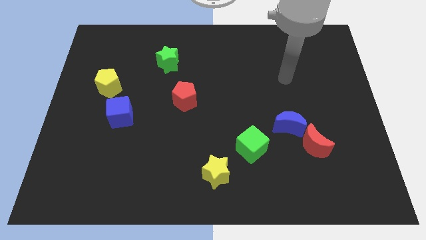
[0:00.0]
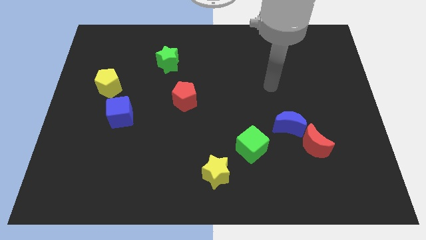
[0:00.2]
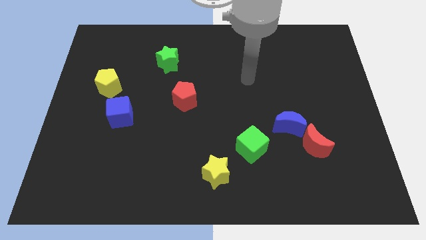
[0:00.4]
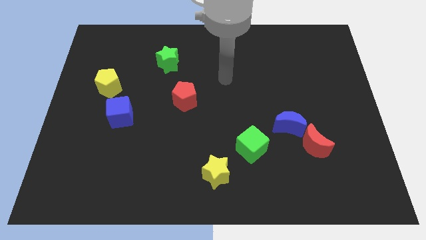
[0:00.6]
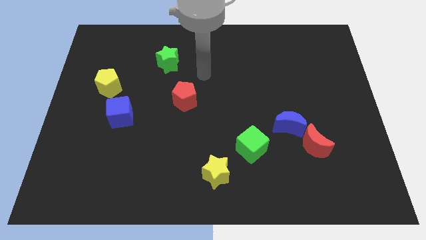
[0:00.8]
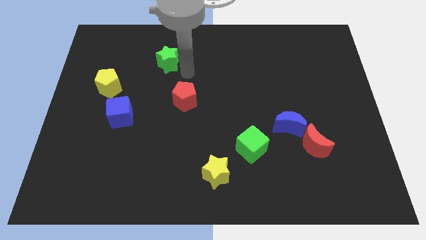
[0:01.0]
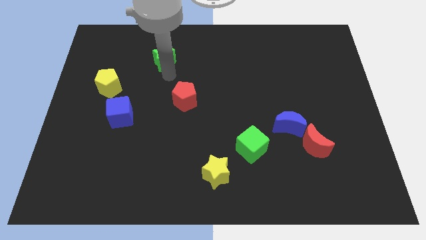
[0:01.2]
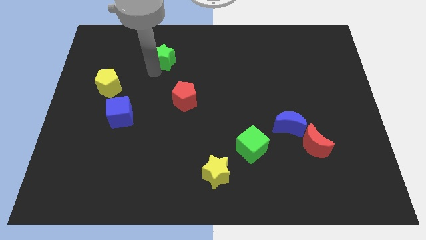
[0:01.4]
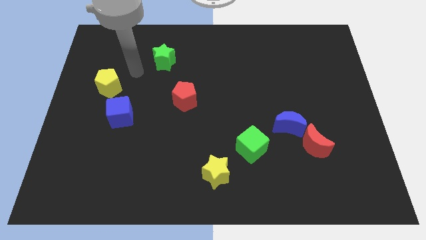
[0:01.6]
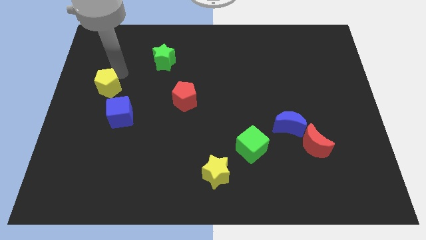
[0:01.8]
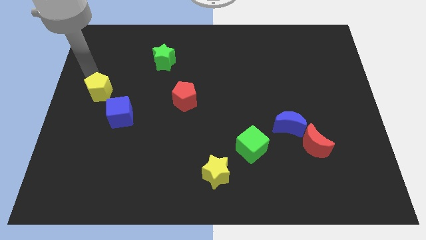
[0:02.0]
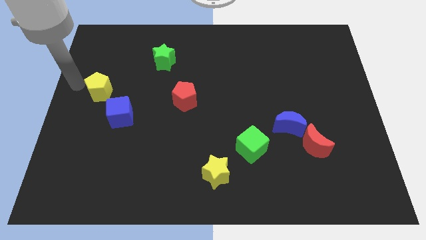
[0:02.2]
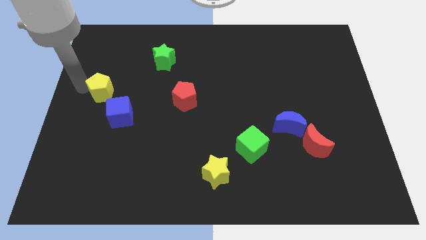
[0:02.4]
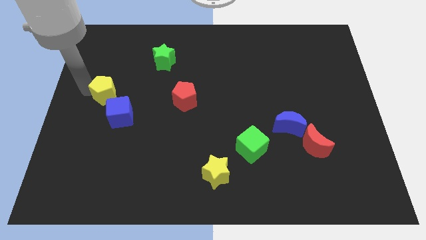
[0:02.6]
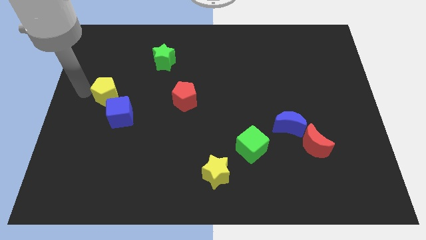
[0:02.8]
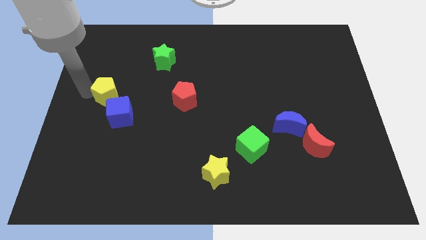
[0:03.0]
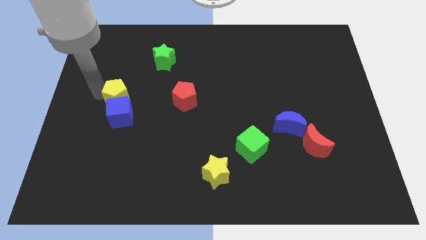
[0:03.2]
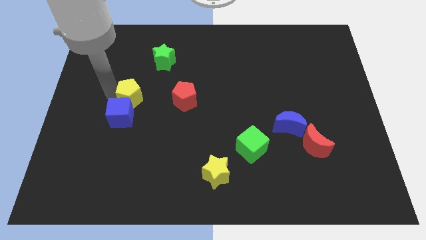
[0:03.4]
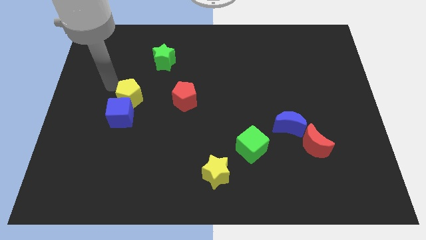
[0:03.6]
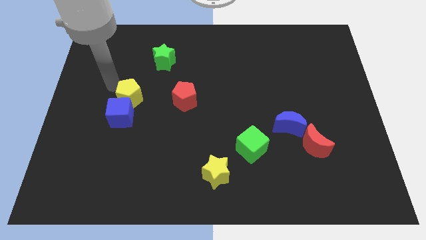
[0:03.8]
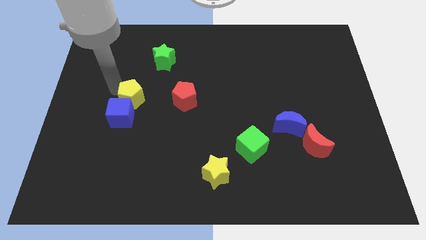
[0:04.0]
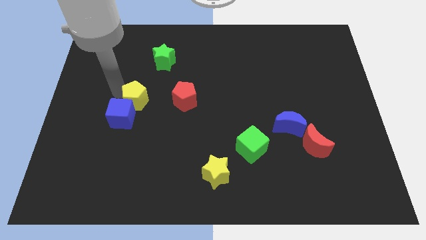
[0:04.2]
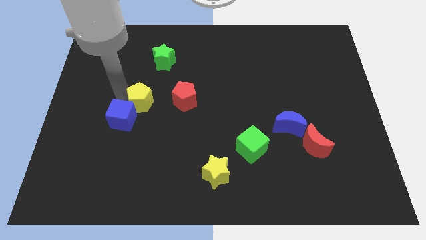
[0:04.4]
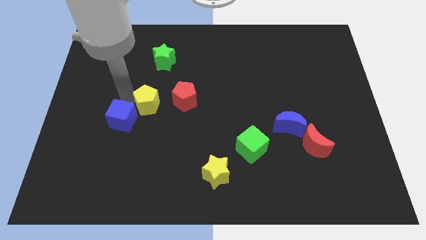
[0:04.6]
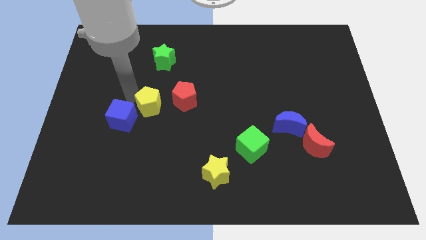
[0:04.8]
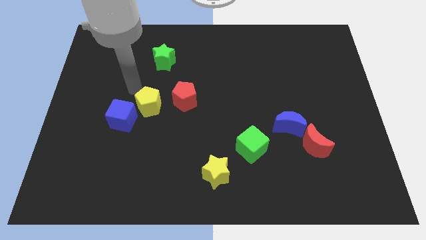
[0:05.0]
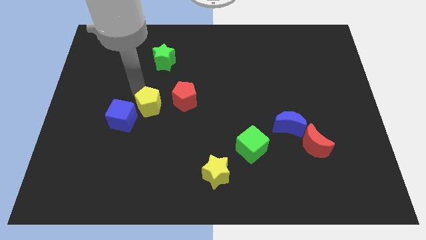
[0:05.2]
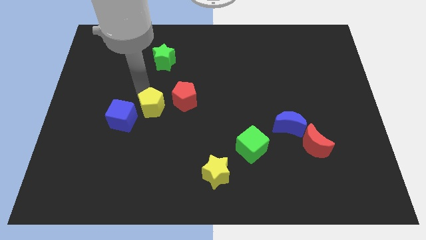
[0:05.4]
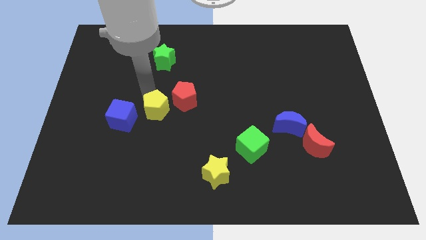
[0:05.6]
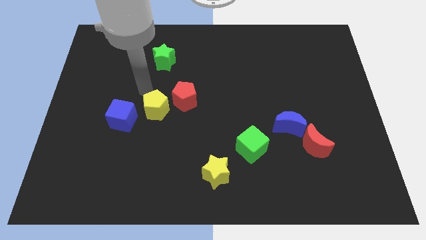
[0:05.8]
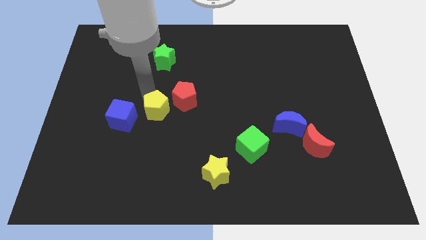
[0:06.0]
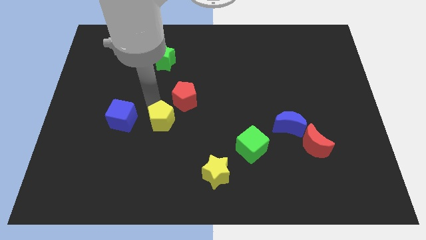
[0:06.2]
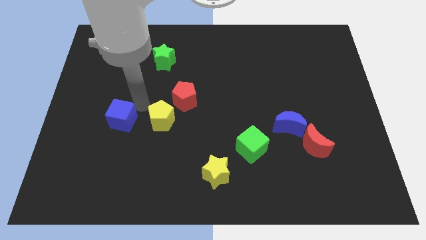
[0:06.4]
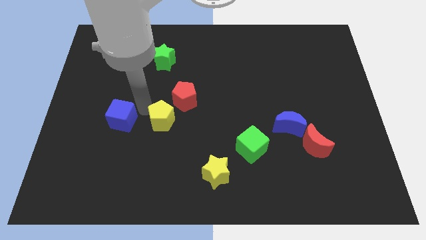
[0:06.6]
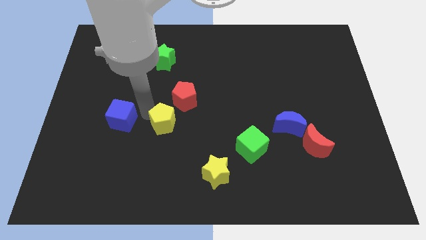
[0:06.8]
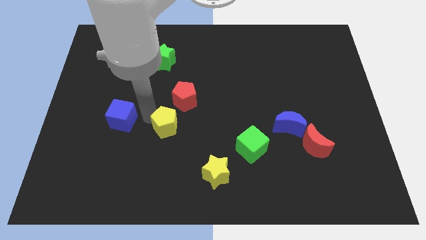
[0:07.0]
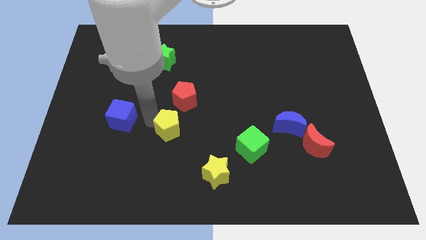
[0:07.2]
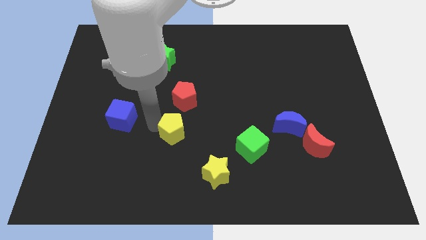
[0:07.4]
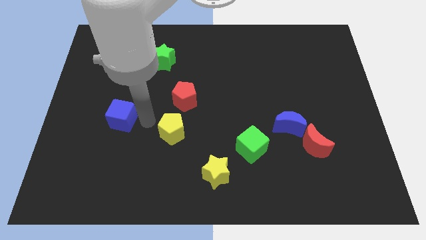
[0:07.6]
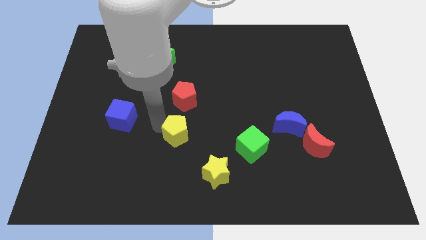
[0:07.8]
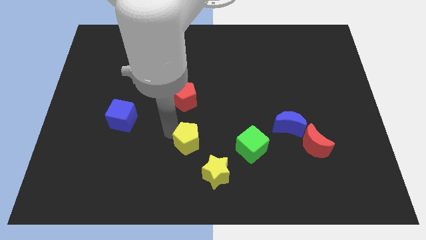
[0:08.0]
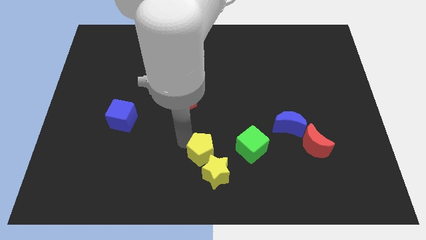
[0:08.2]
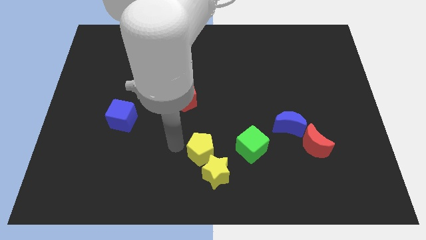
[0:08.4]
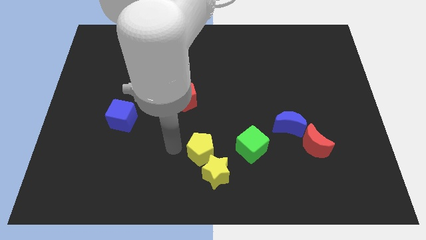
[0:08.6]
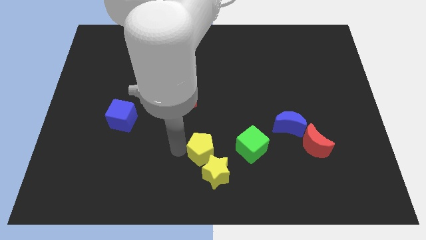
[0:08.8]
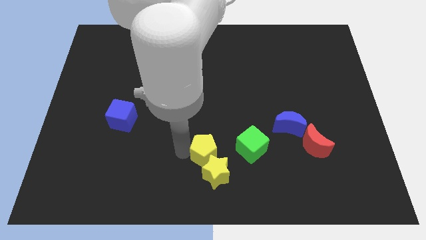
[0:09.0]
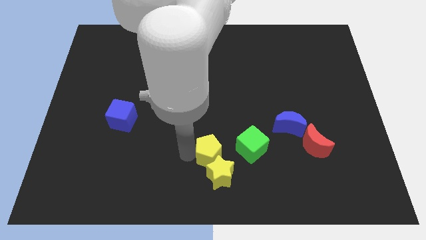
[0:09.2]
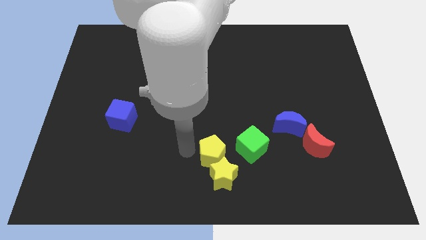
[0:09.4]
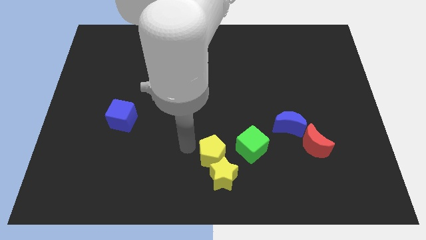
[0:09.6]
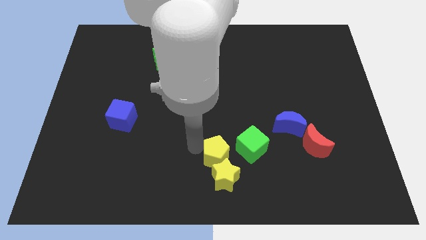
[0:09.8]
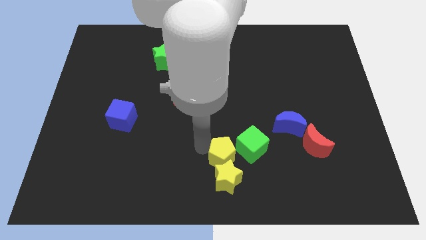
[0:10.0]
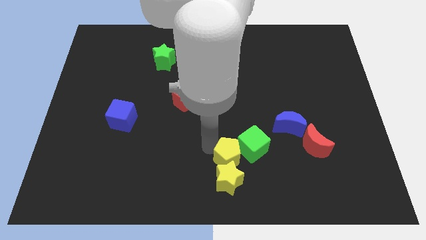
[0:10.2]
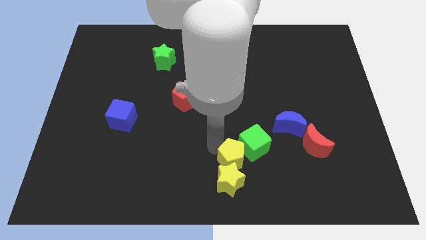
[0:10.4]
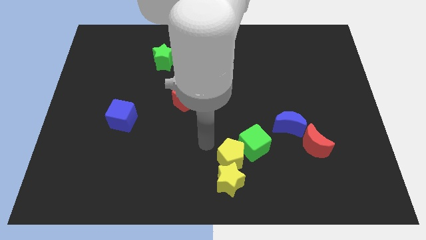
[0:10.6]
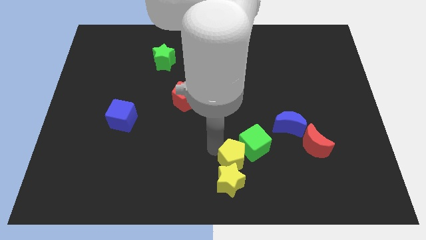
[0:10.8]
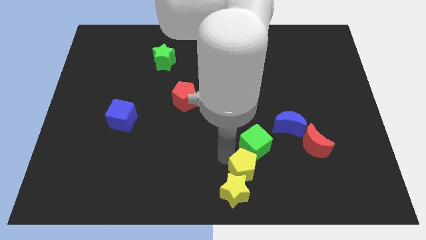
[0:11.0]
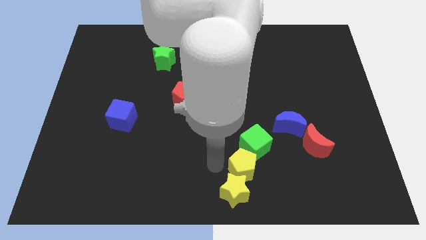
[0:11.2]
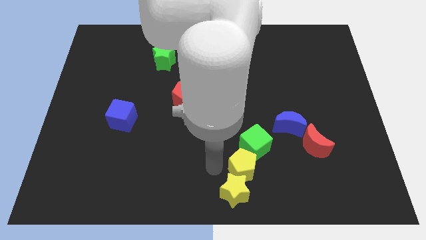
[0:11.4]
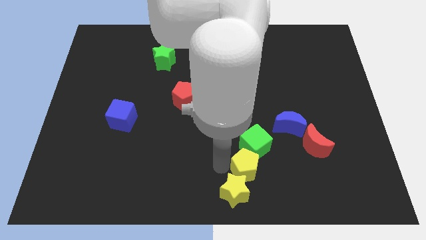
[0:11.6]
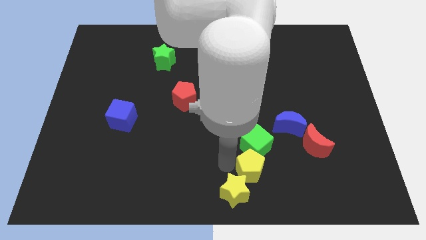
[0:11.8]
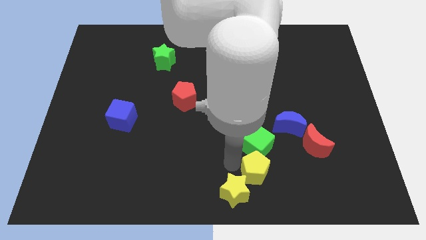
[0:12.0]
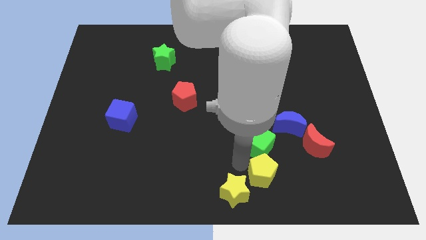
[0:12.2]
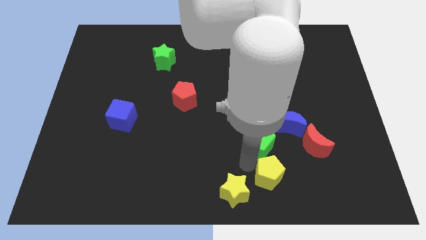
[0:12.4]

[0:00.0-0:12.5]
slide the yellow pentagon to the bottom left side of the red moon

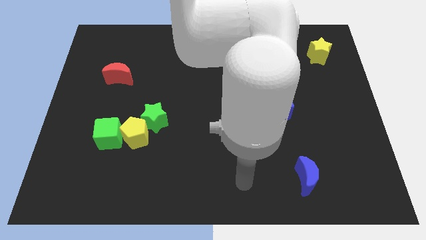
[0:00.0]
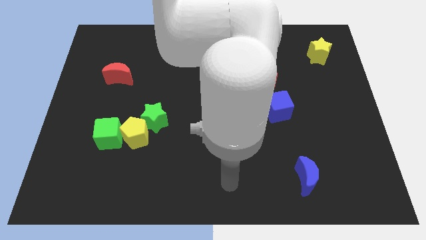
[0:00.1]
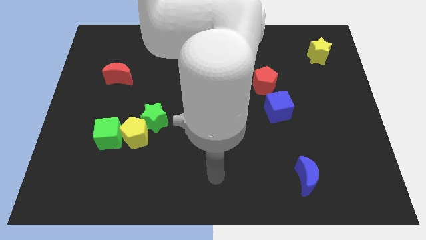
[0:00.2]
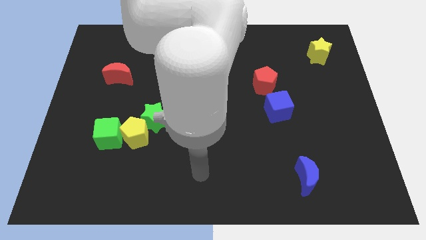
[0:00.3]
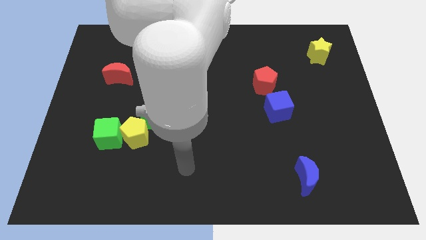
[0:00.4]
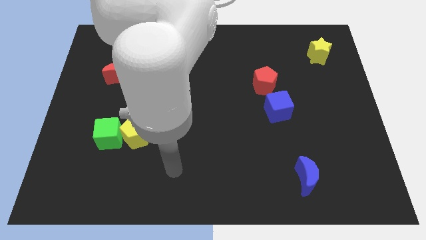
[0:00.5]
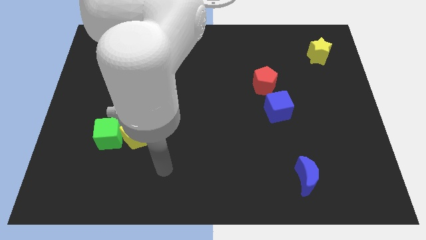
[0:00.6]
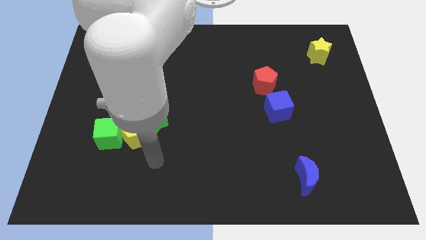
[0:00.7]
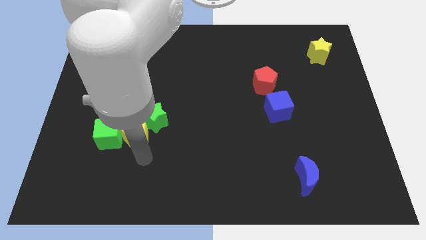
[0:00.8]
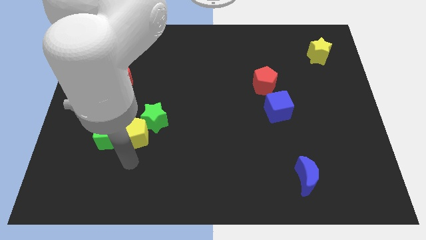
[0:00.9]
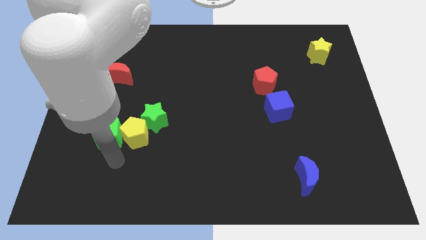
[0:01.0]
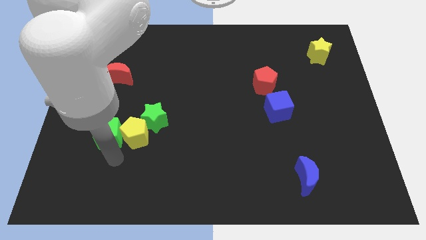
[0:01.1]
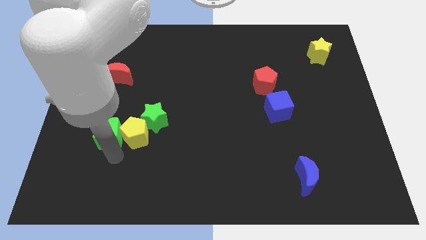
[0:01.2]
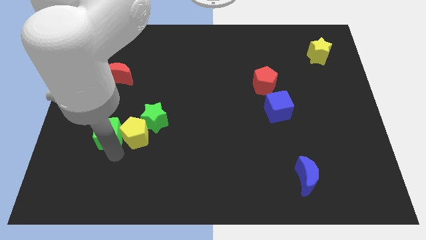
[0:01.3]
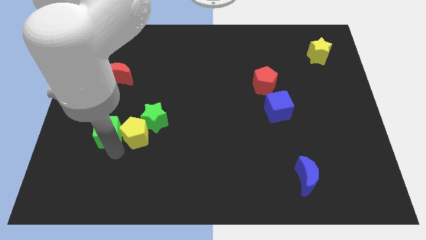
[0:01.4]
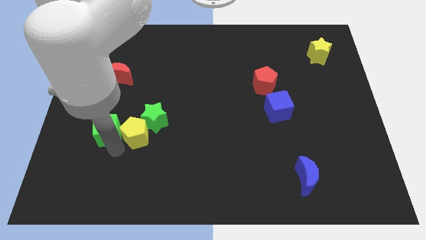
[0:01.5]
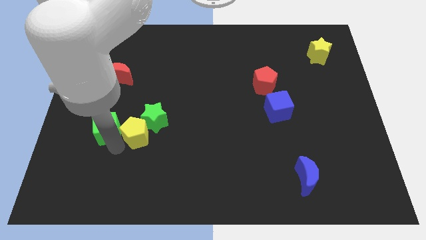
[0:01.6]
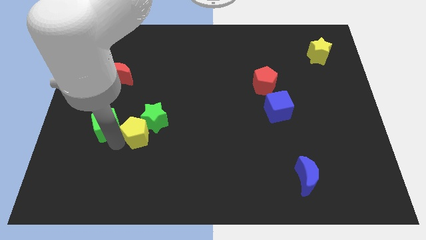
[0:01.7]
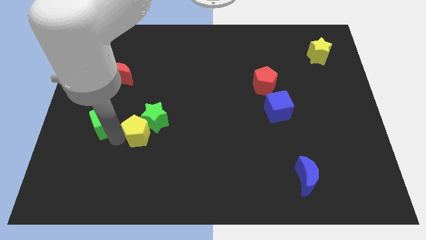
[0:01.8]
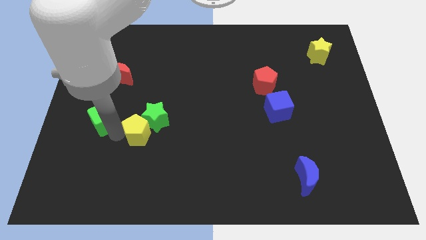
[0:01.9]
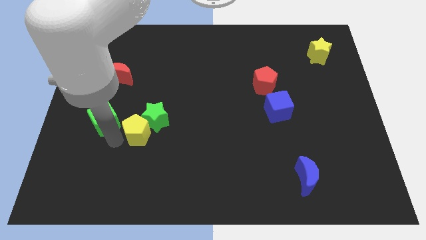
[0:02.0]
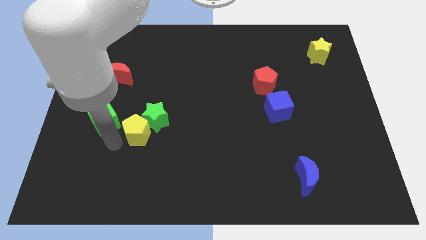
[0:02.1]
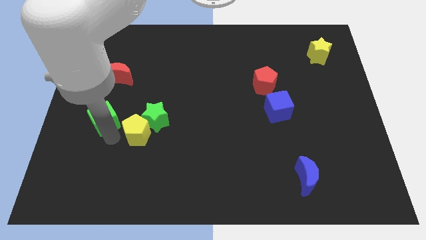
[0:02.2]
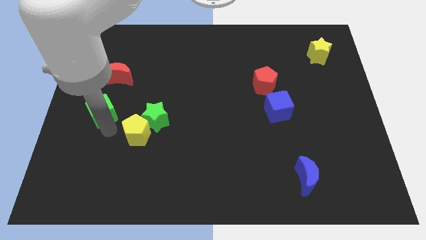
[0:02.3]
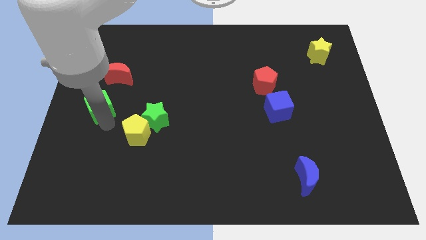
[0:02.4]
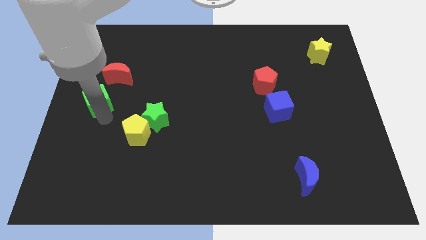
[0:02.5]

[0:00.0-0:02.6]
push the green cube diagonally down and to the left of the red moon
